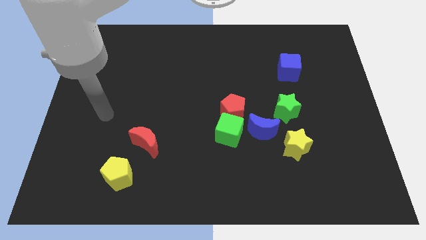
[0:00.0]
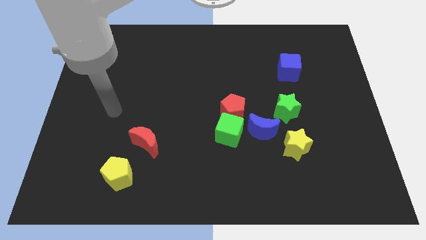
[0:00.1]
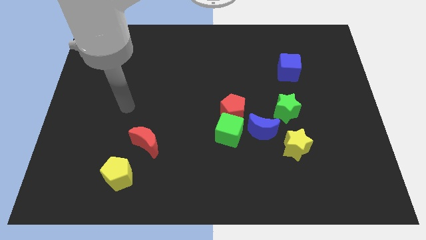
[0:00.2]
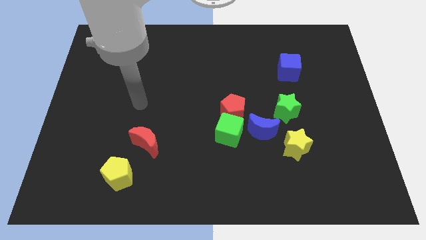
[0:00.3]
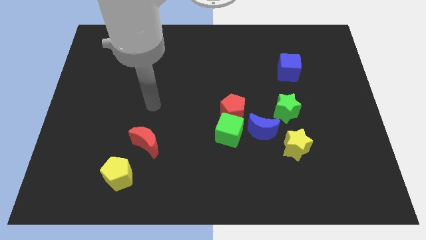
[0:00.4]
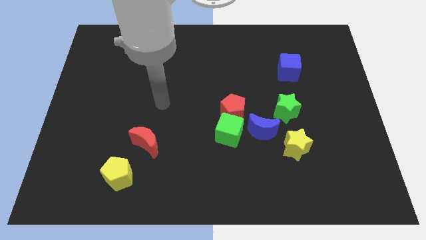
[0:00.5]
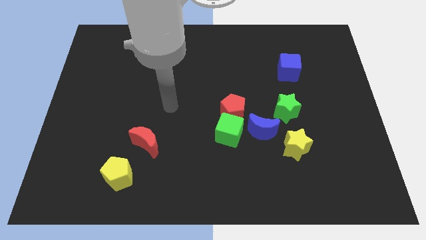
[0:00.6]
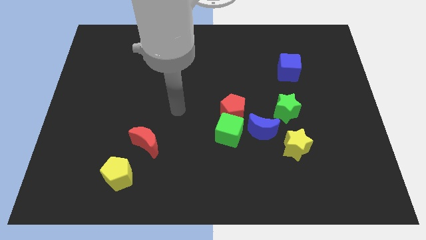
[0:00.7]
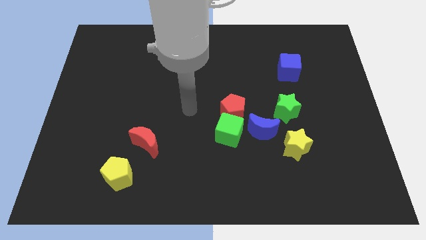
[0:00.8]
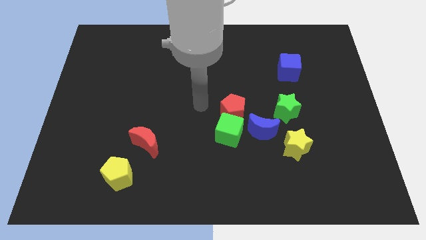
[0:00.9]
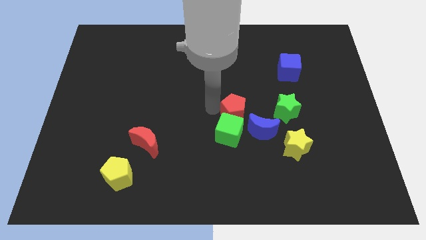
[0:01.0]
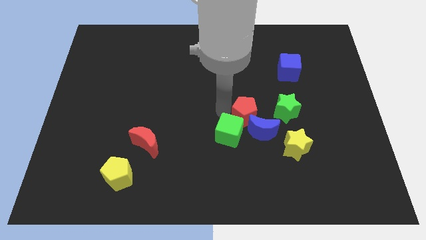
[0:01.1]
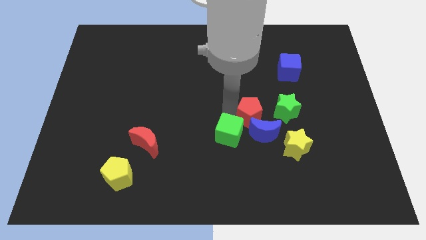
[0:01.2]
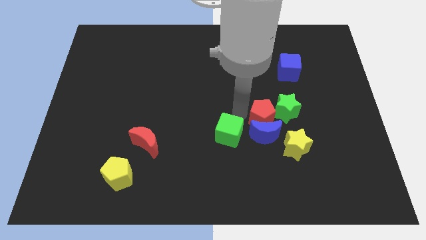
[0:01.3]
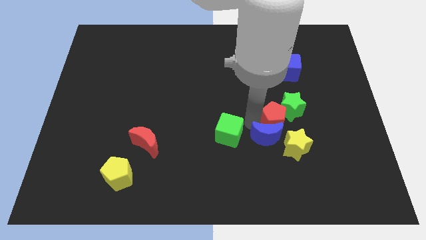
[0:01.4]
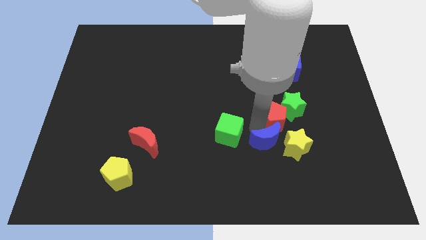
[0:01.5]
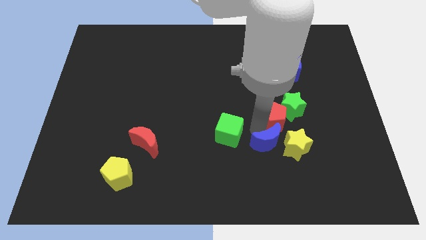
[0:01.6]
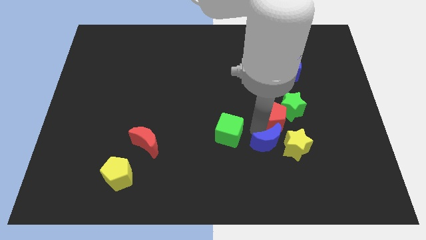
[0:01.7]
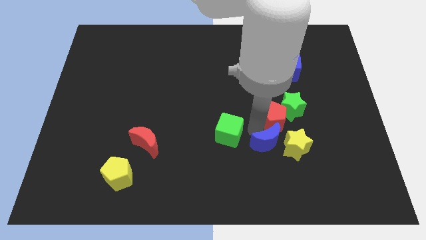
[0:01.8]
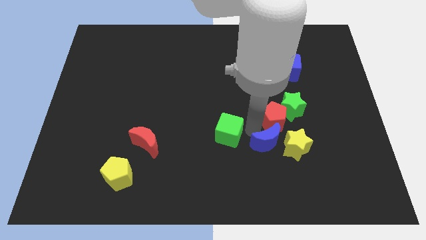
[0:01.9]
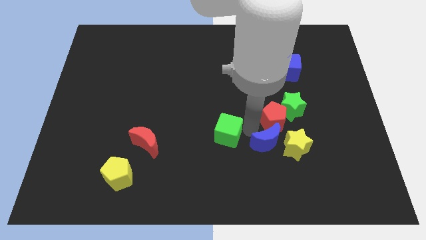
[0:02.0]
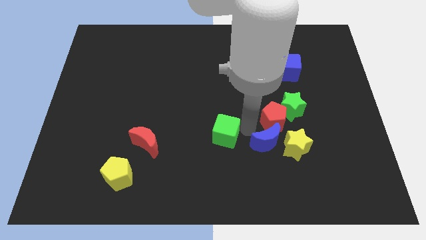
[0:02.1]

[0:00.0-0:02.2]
move the green cube away from the red pentagon and blue moon

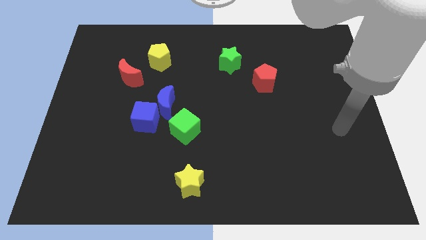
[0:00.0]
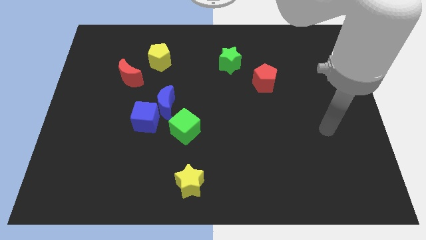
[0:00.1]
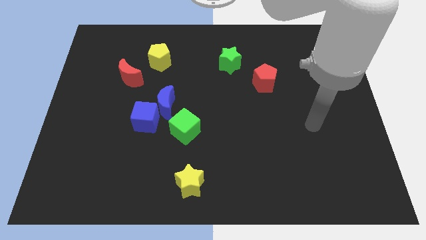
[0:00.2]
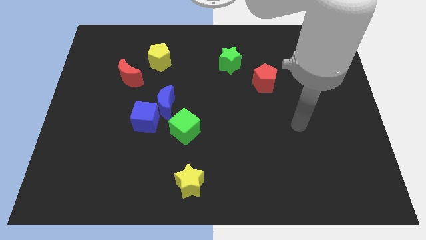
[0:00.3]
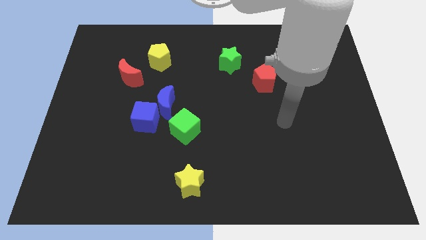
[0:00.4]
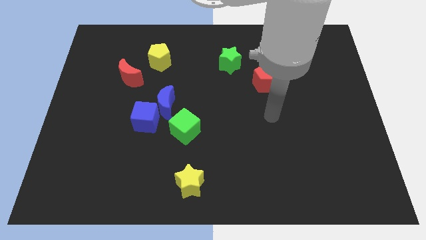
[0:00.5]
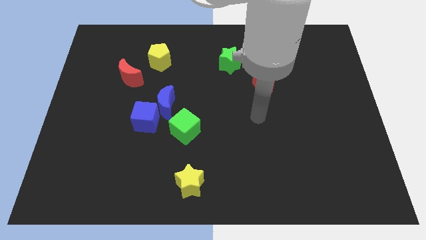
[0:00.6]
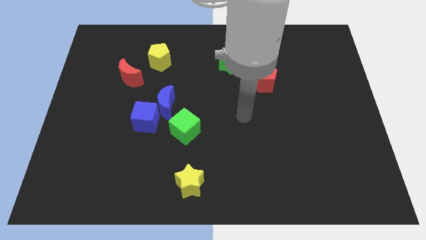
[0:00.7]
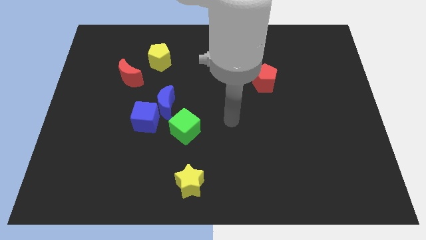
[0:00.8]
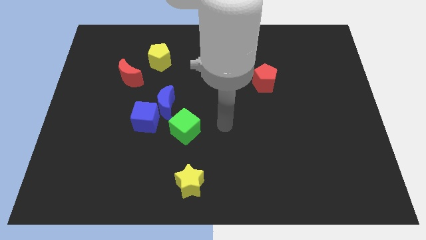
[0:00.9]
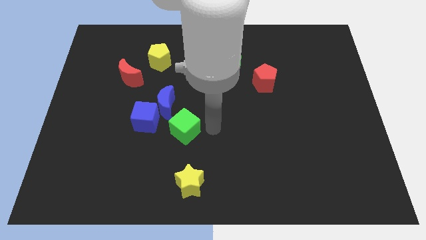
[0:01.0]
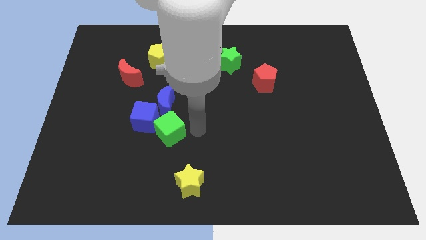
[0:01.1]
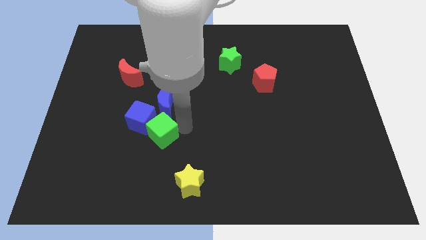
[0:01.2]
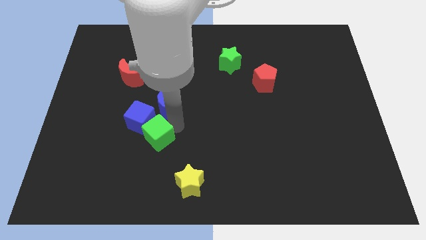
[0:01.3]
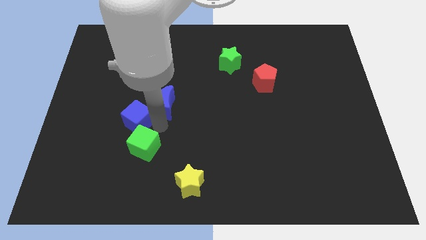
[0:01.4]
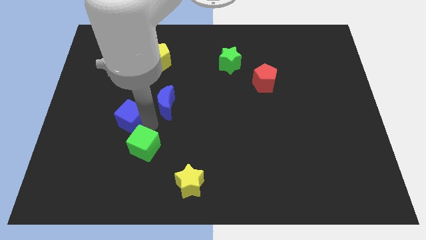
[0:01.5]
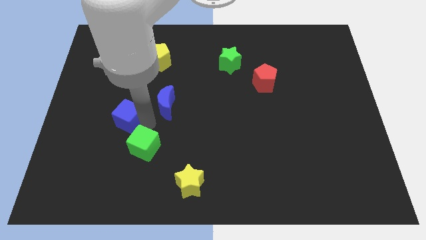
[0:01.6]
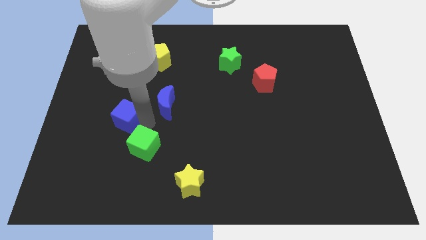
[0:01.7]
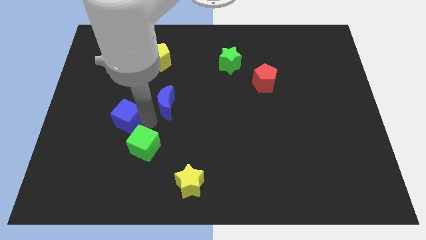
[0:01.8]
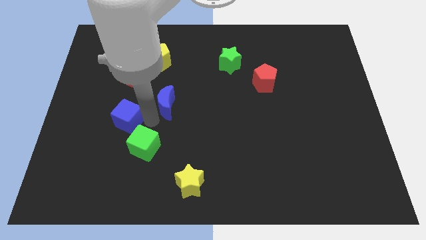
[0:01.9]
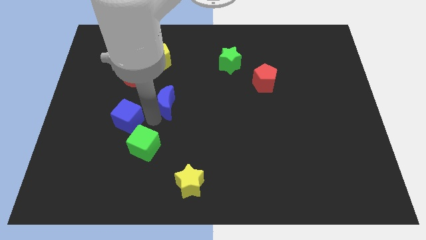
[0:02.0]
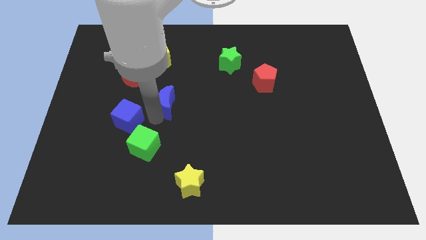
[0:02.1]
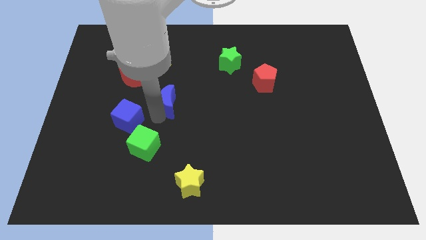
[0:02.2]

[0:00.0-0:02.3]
pull the blue moon apart from the blue cube and green cube

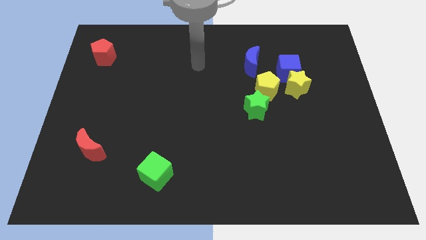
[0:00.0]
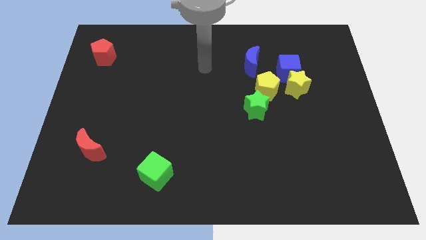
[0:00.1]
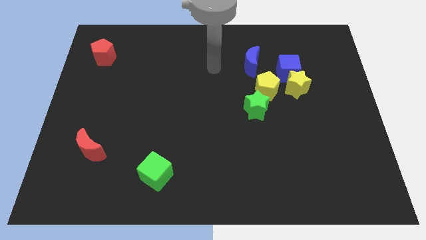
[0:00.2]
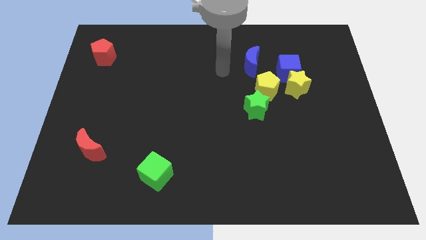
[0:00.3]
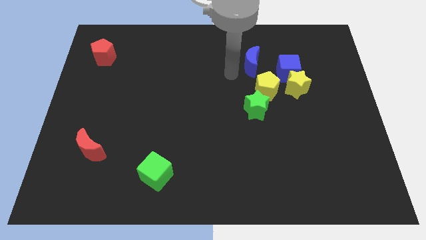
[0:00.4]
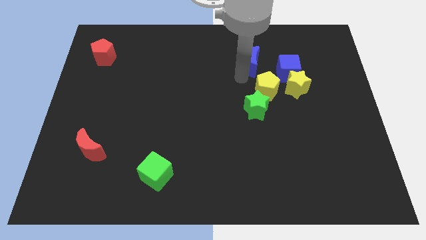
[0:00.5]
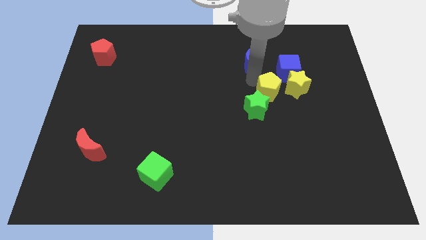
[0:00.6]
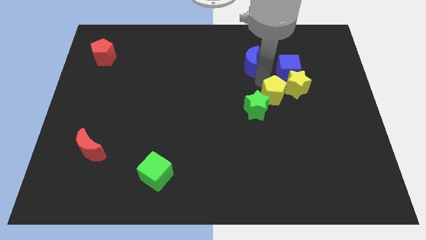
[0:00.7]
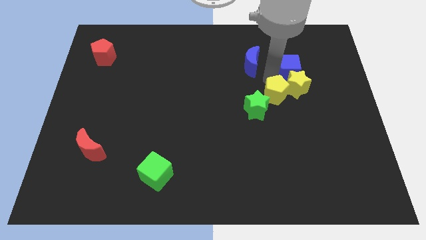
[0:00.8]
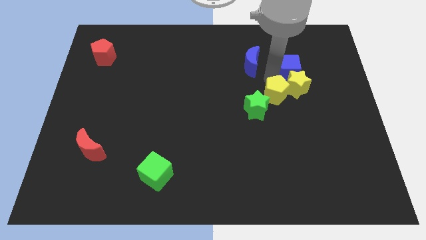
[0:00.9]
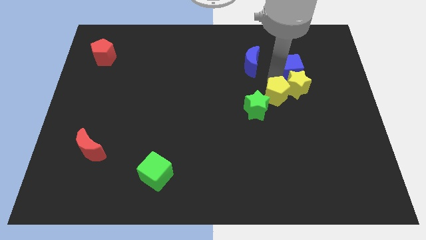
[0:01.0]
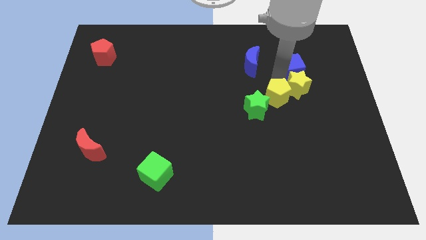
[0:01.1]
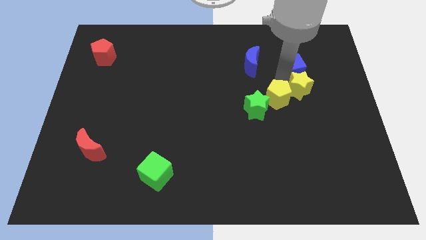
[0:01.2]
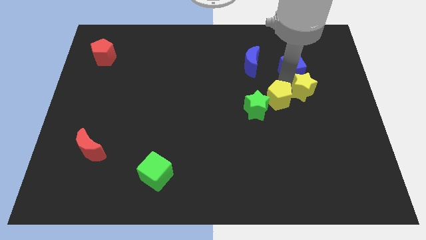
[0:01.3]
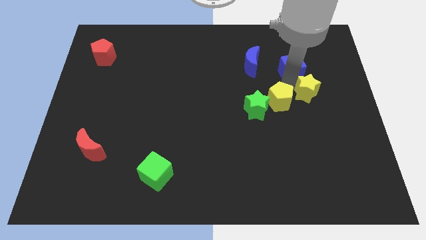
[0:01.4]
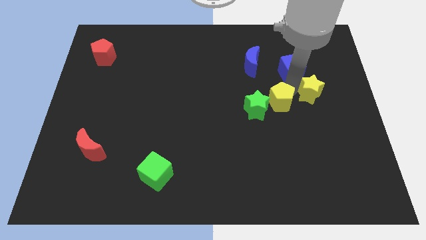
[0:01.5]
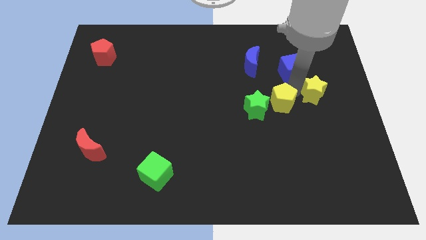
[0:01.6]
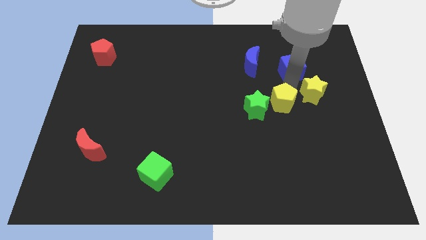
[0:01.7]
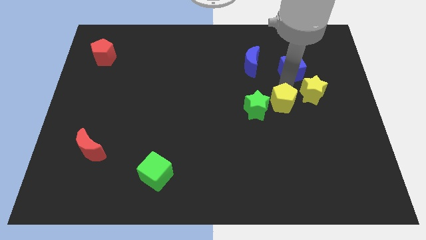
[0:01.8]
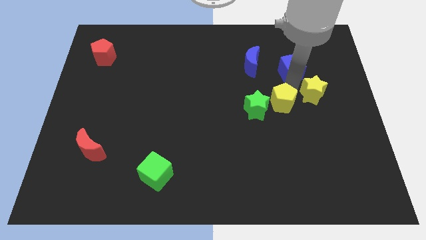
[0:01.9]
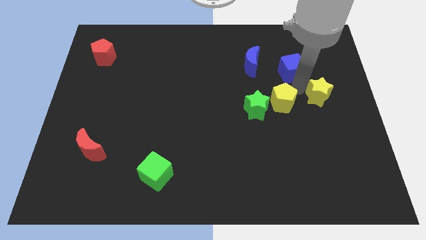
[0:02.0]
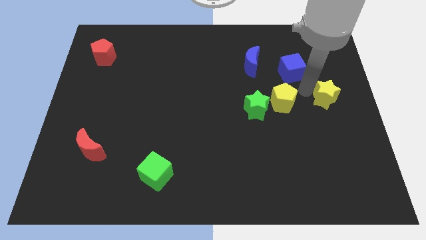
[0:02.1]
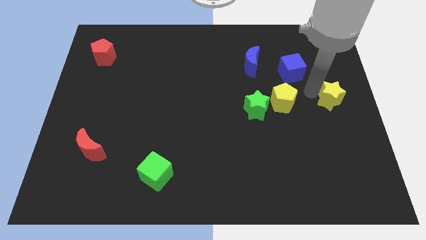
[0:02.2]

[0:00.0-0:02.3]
move the yellow star away from the blue cube and yellow pentagon

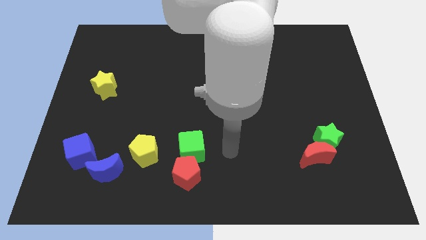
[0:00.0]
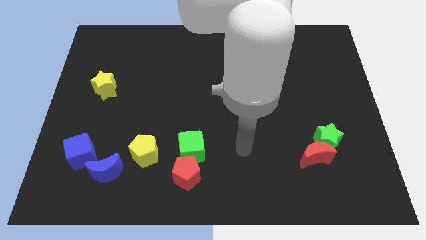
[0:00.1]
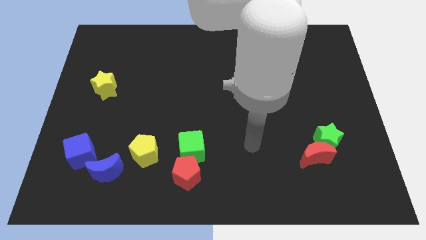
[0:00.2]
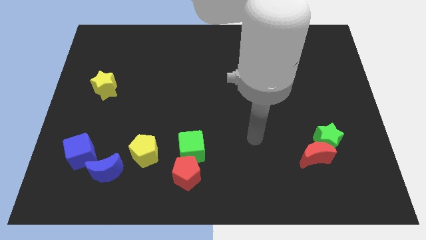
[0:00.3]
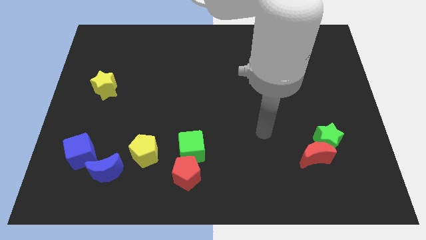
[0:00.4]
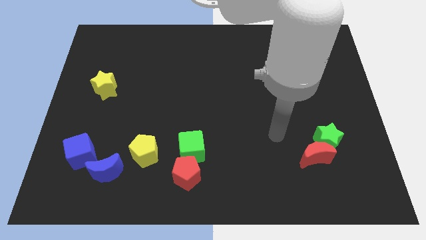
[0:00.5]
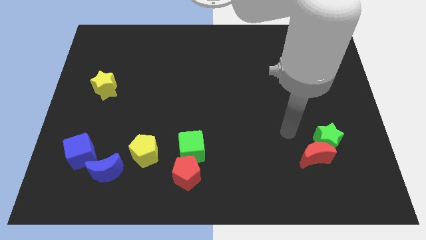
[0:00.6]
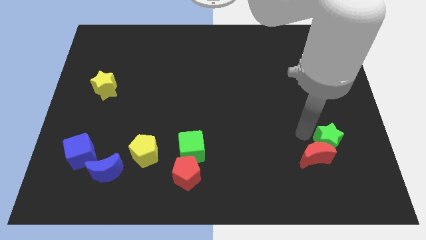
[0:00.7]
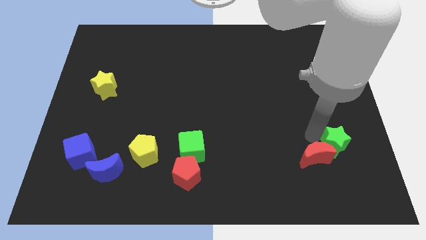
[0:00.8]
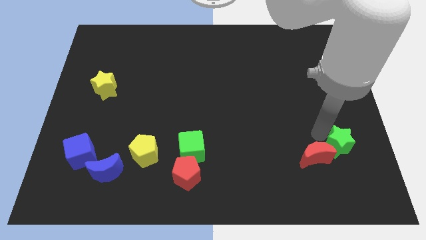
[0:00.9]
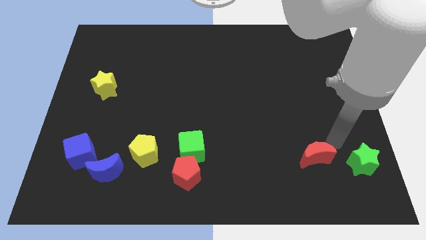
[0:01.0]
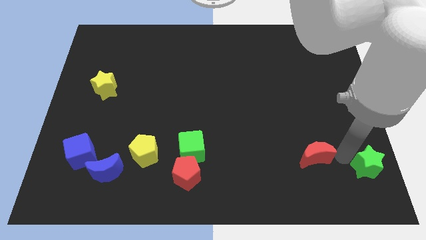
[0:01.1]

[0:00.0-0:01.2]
move the red moon away from the green star

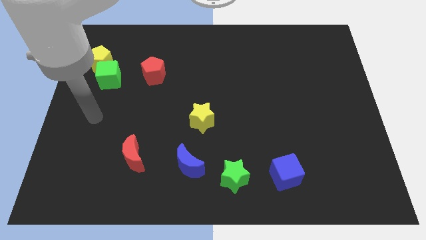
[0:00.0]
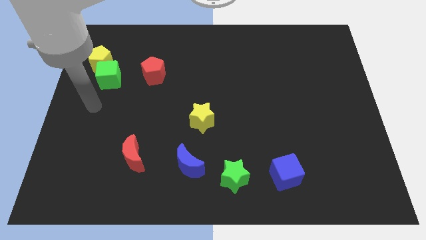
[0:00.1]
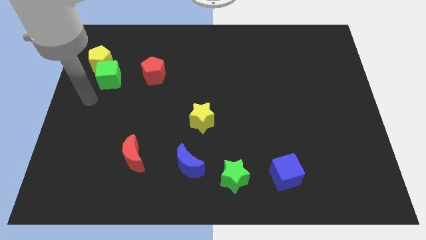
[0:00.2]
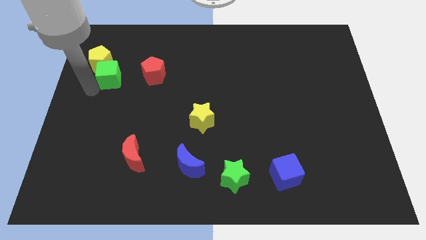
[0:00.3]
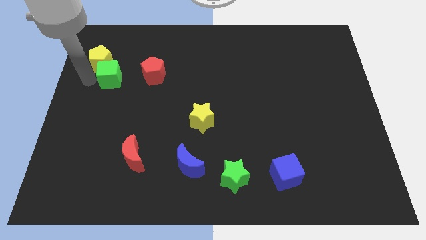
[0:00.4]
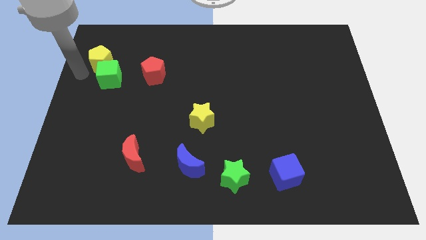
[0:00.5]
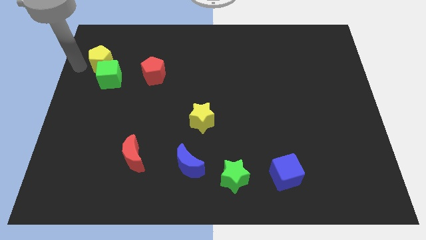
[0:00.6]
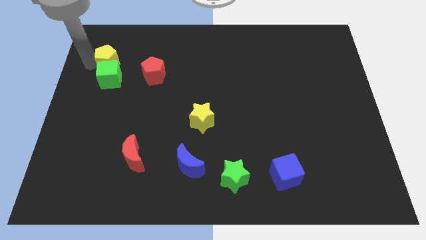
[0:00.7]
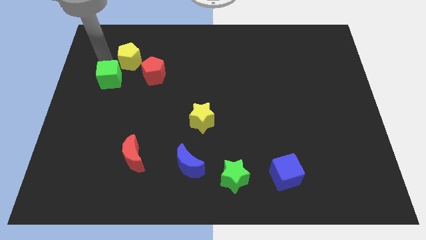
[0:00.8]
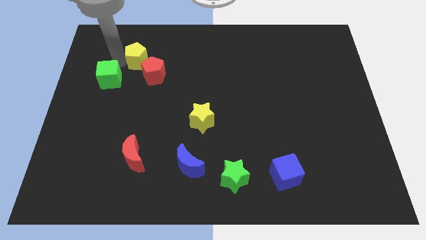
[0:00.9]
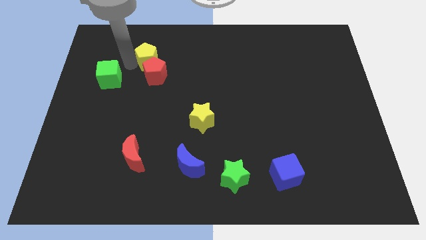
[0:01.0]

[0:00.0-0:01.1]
pull the green cube apart from the yellow pentagon

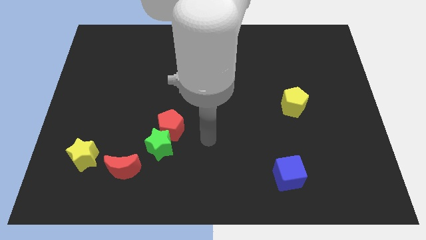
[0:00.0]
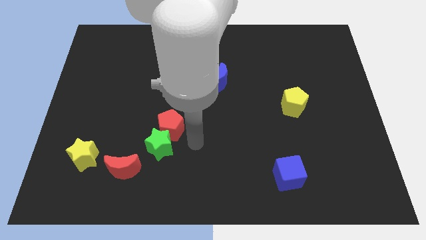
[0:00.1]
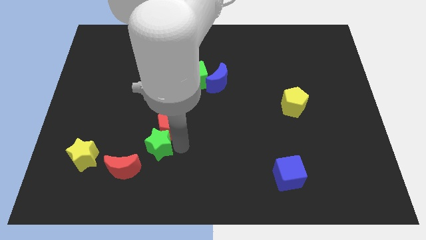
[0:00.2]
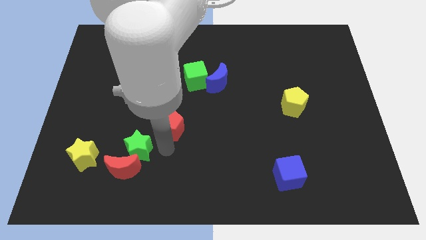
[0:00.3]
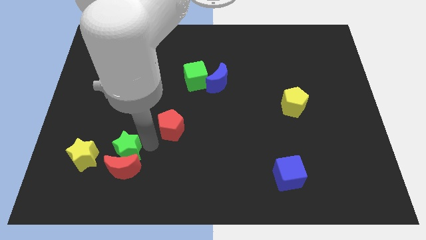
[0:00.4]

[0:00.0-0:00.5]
move the red pentagon away from the green star
